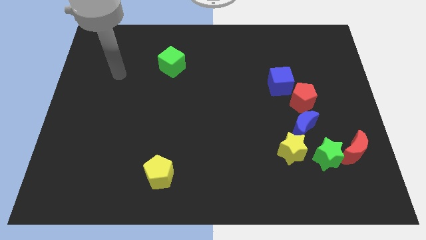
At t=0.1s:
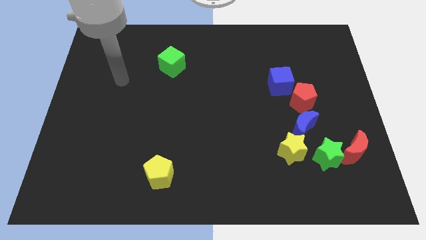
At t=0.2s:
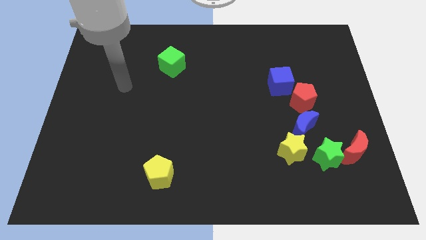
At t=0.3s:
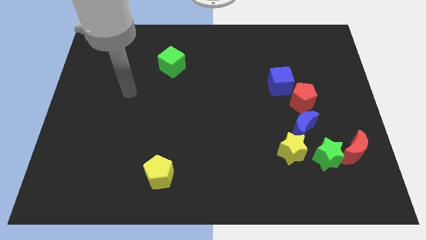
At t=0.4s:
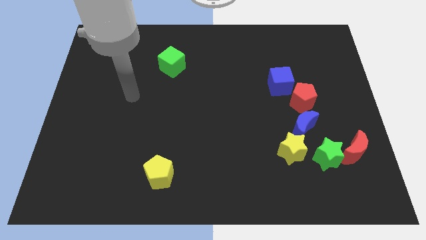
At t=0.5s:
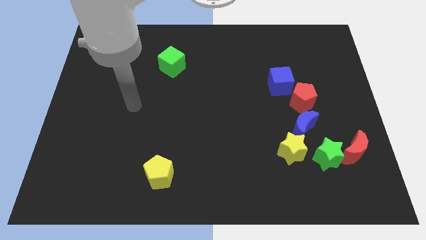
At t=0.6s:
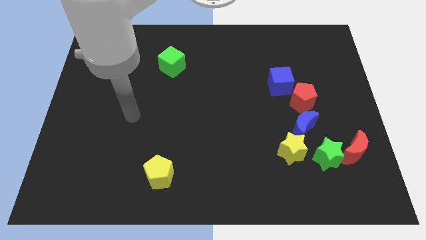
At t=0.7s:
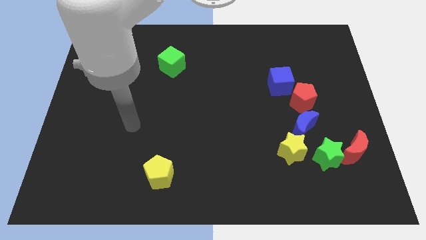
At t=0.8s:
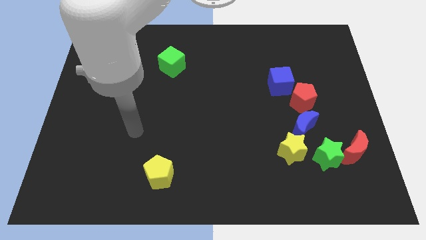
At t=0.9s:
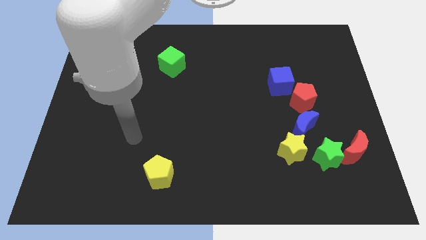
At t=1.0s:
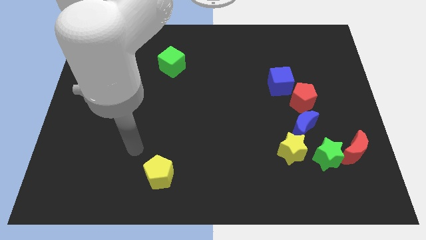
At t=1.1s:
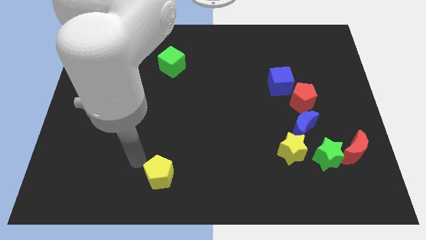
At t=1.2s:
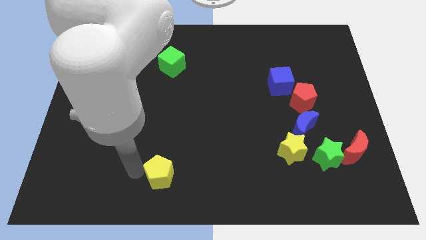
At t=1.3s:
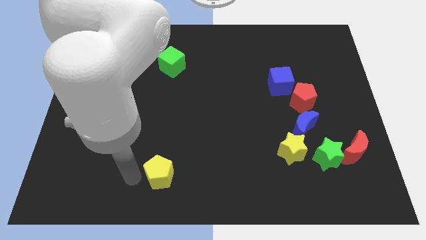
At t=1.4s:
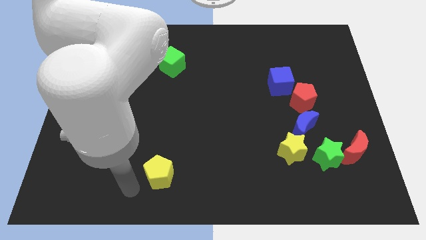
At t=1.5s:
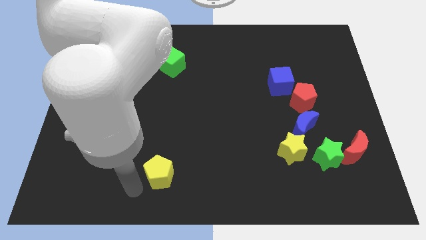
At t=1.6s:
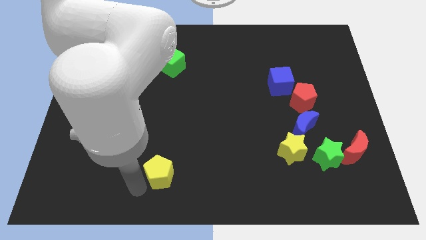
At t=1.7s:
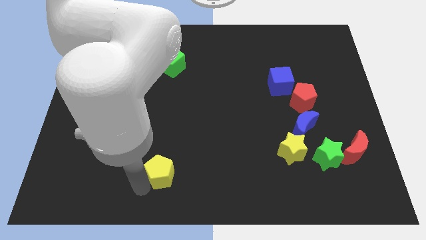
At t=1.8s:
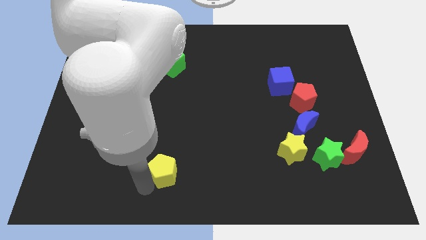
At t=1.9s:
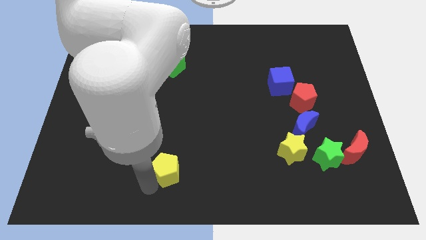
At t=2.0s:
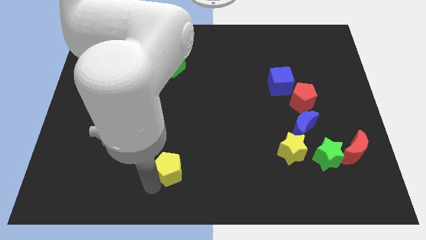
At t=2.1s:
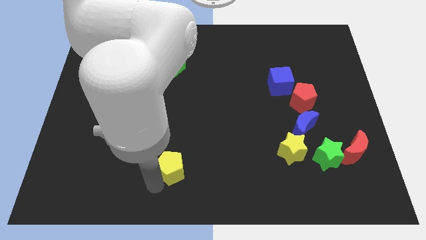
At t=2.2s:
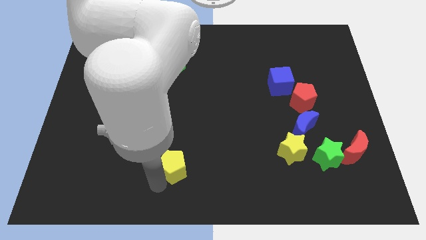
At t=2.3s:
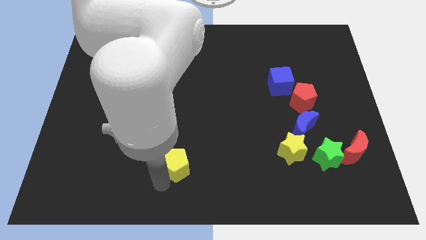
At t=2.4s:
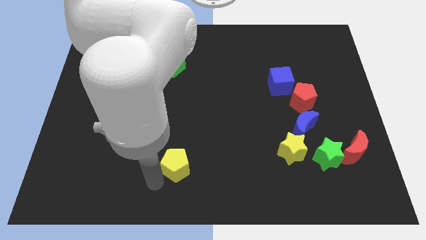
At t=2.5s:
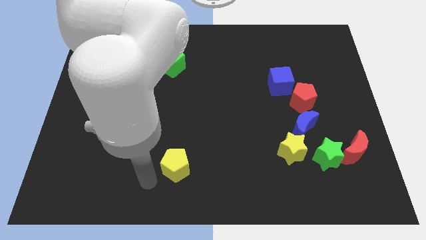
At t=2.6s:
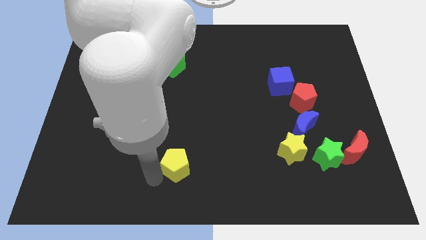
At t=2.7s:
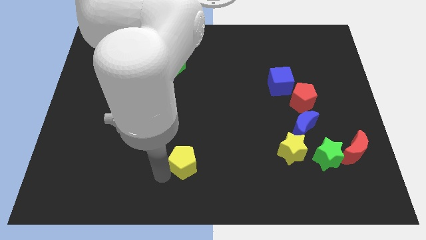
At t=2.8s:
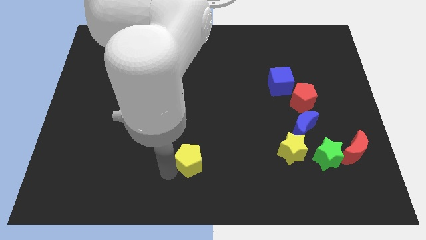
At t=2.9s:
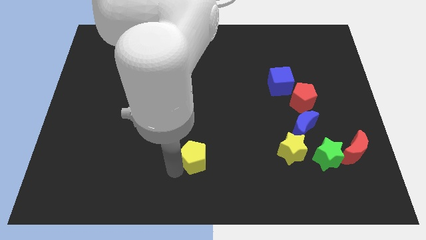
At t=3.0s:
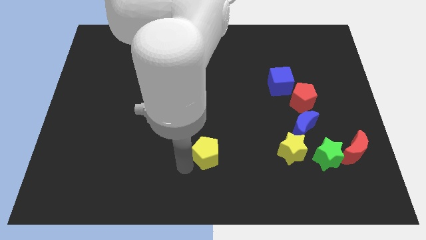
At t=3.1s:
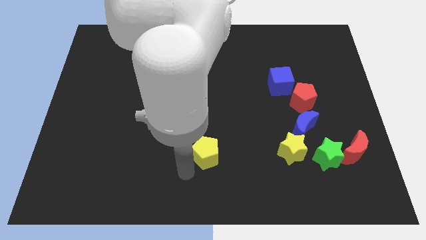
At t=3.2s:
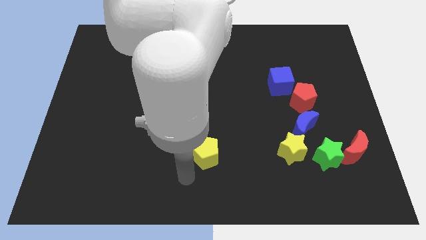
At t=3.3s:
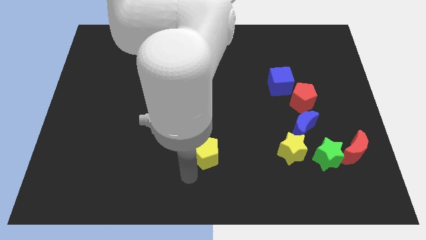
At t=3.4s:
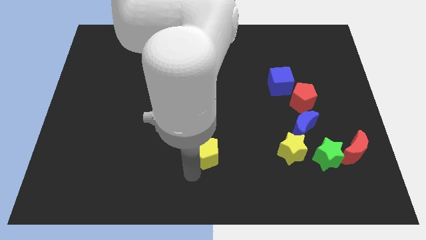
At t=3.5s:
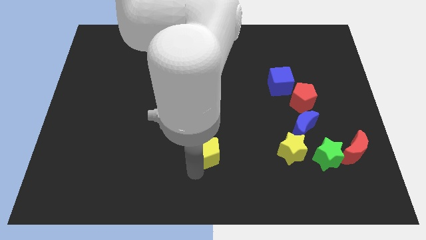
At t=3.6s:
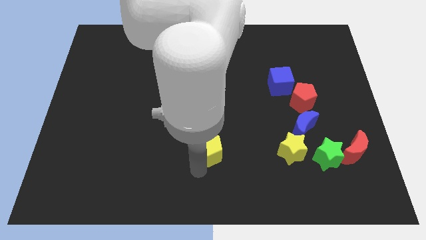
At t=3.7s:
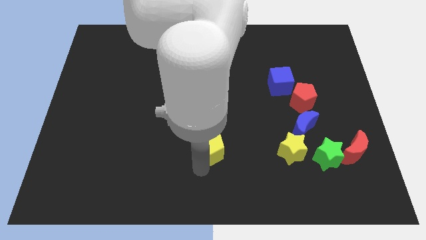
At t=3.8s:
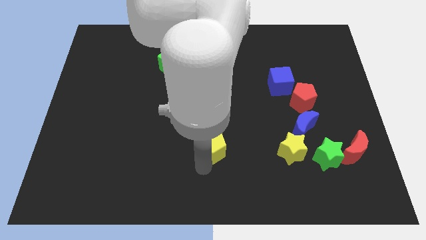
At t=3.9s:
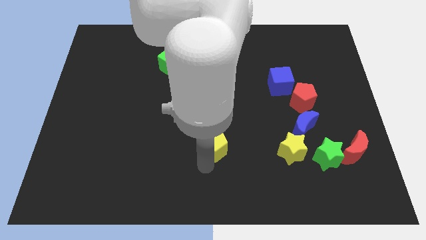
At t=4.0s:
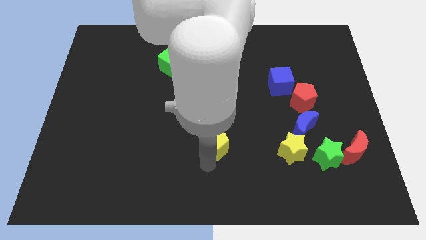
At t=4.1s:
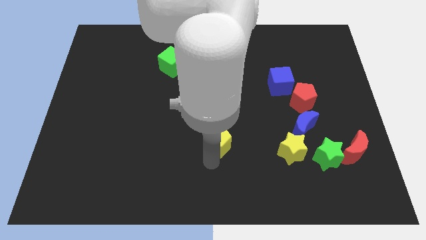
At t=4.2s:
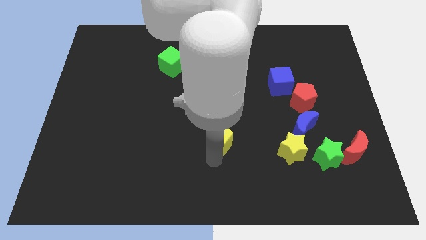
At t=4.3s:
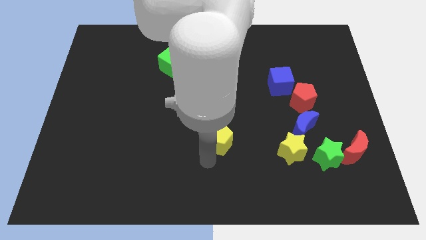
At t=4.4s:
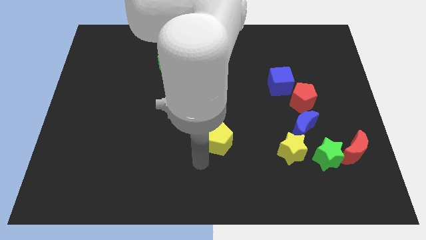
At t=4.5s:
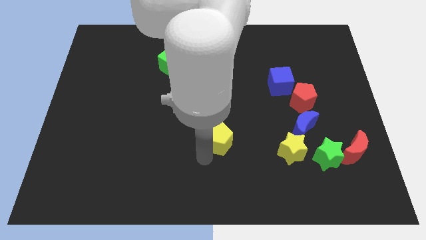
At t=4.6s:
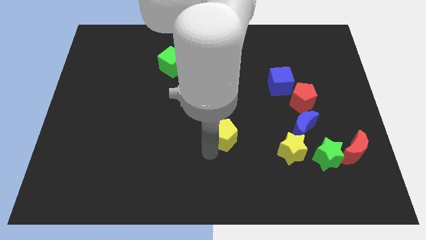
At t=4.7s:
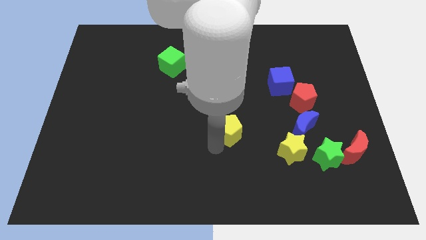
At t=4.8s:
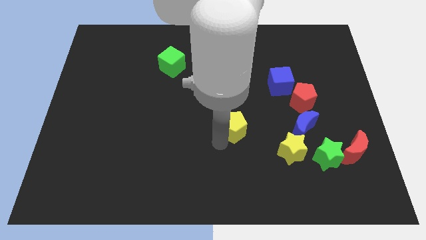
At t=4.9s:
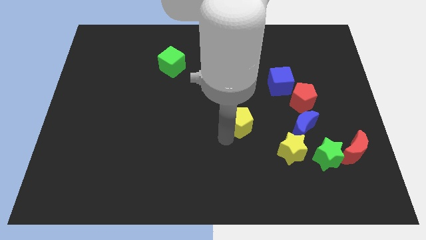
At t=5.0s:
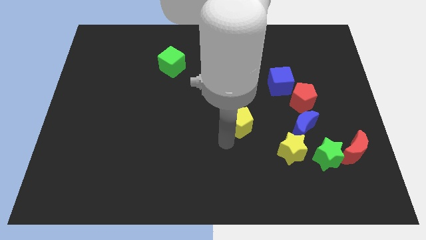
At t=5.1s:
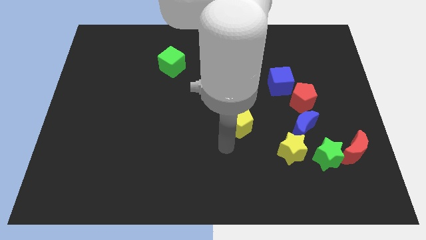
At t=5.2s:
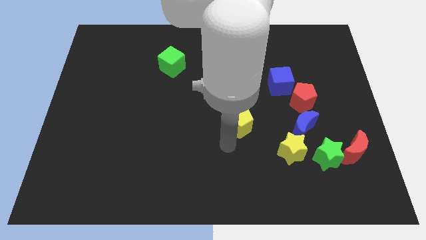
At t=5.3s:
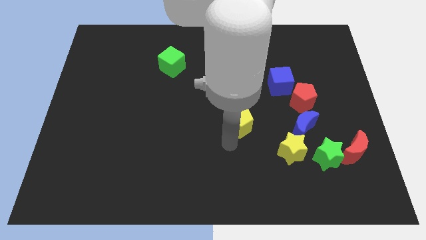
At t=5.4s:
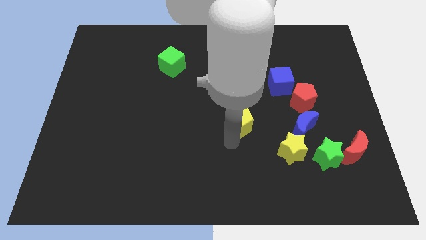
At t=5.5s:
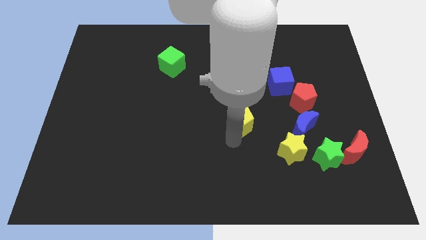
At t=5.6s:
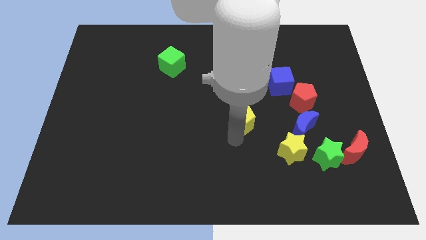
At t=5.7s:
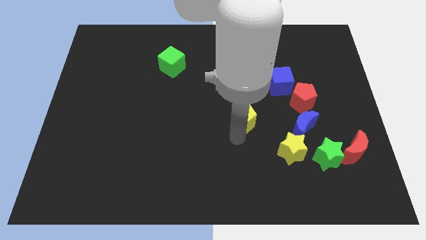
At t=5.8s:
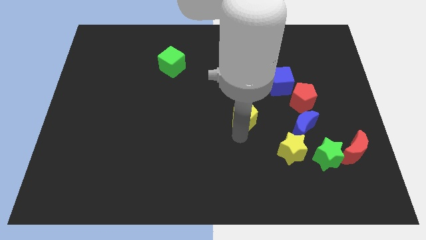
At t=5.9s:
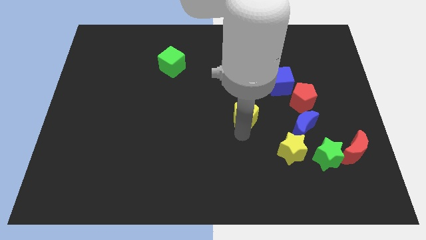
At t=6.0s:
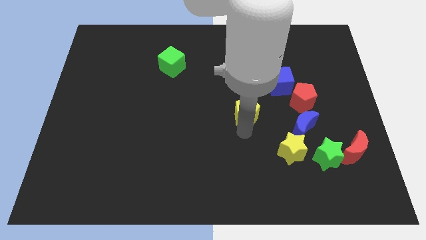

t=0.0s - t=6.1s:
push the yellow pentagon to the left side of the red pentagon

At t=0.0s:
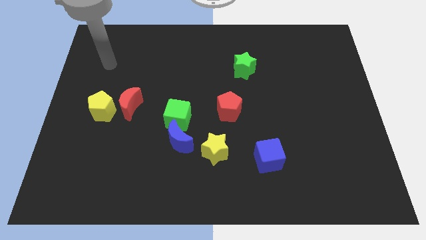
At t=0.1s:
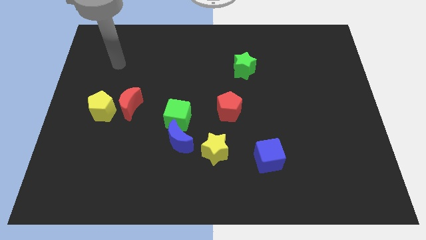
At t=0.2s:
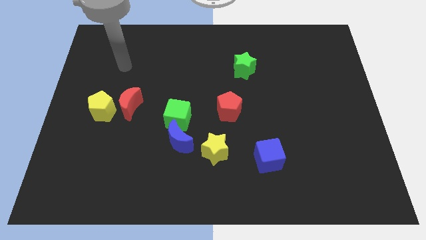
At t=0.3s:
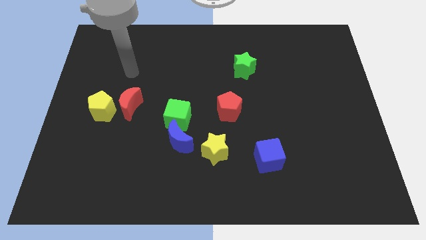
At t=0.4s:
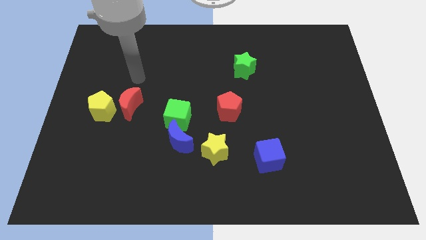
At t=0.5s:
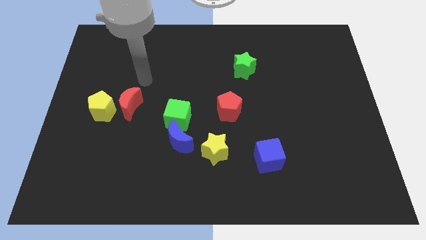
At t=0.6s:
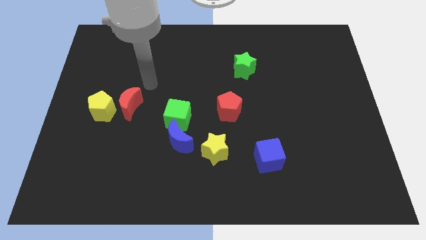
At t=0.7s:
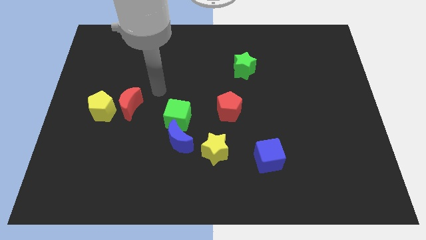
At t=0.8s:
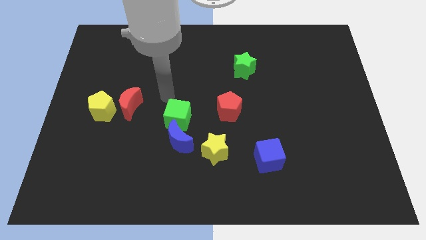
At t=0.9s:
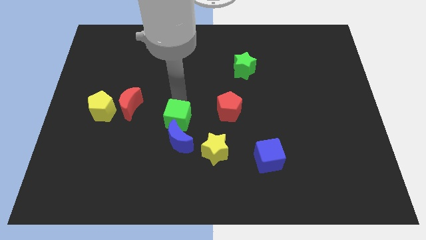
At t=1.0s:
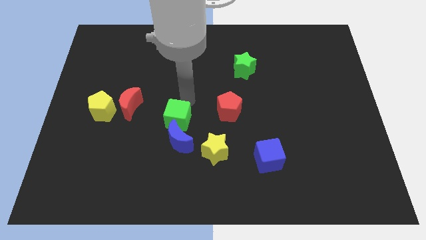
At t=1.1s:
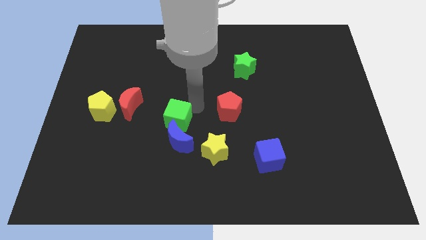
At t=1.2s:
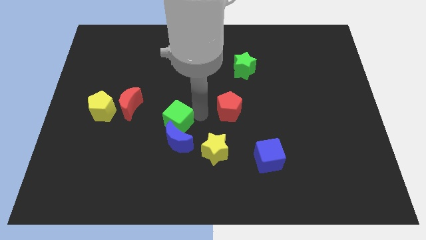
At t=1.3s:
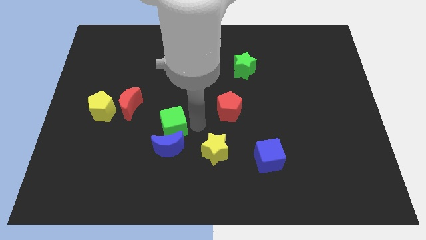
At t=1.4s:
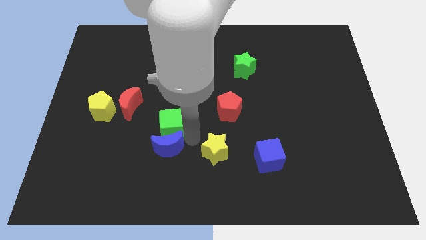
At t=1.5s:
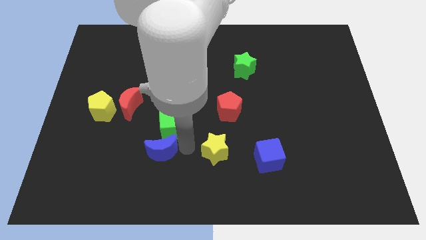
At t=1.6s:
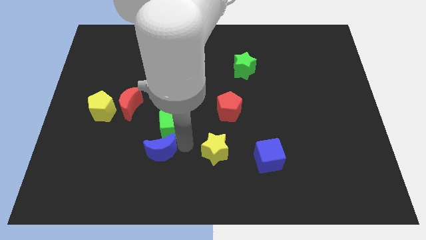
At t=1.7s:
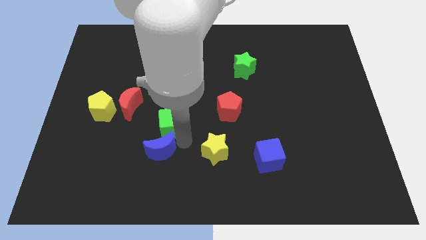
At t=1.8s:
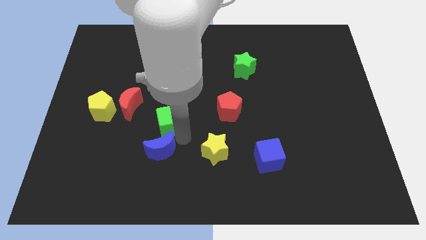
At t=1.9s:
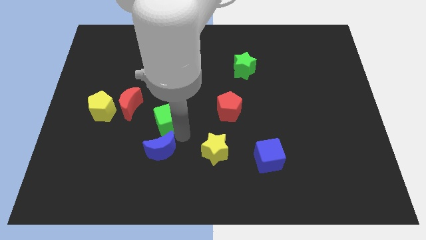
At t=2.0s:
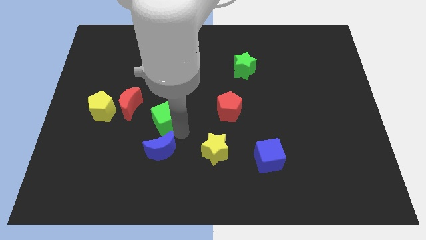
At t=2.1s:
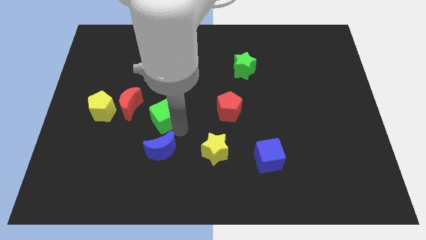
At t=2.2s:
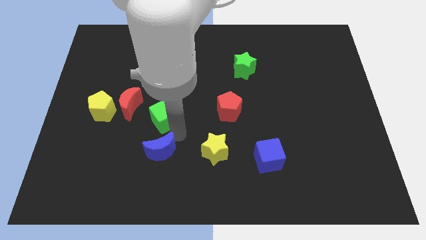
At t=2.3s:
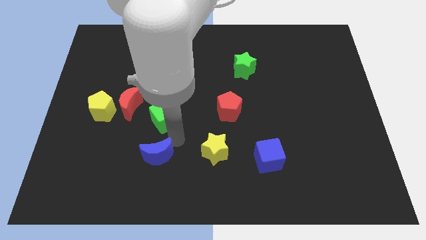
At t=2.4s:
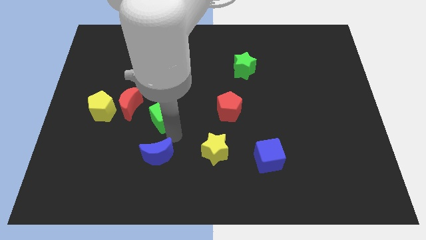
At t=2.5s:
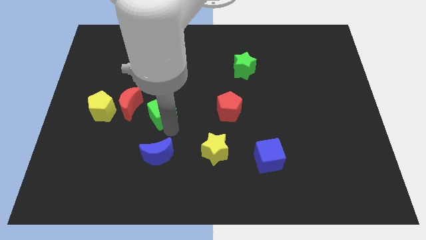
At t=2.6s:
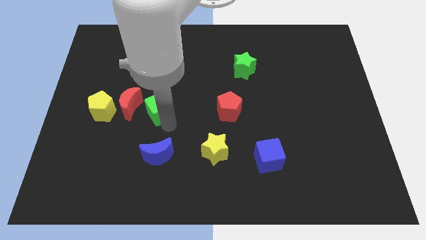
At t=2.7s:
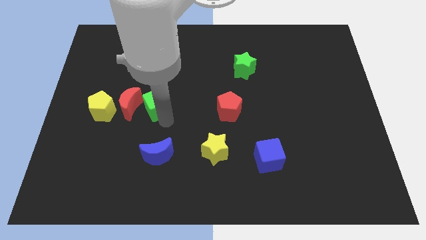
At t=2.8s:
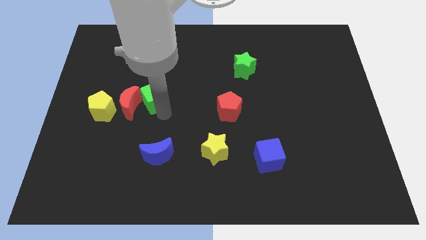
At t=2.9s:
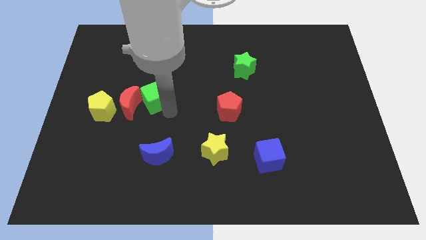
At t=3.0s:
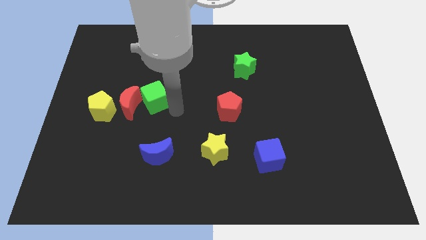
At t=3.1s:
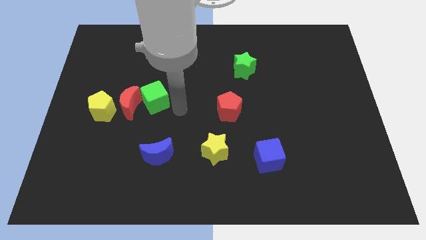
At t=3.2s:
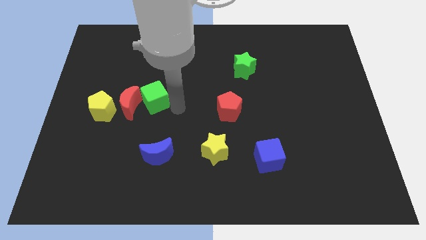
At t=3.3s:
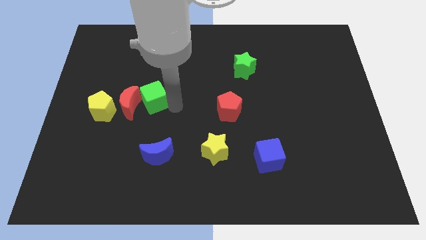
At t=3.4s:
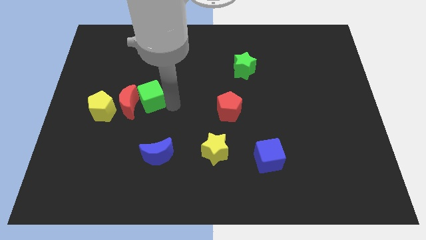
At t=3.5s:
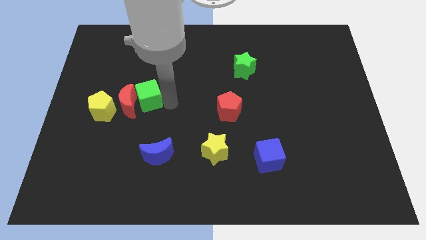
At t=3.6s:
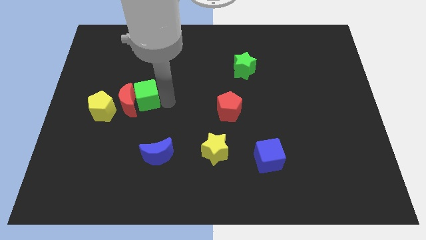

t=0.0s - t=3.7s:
move the green cube diagonally up and to the right of the yellow pentagon
